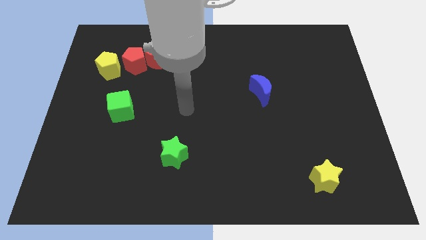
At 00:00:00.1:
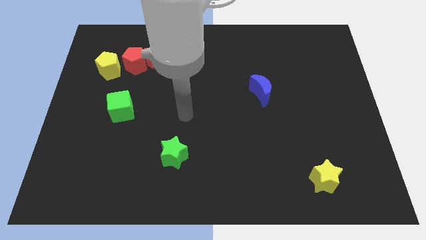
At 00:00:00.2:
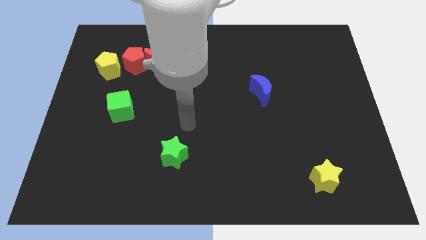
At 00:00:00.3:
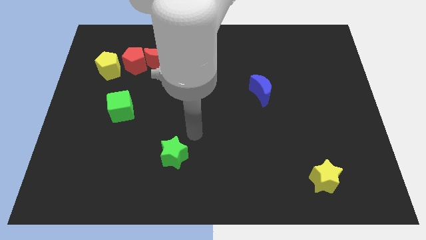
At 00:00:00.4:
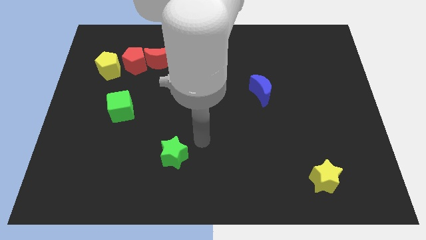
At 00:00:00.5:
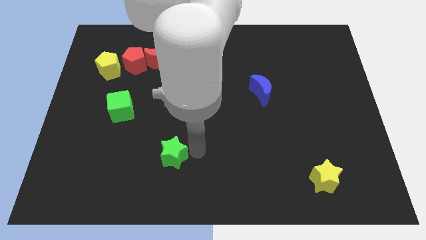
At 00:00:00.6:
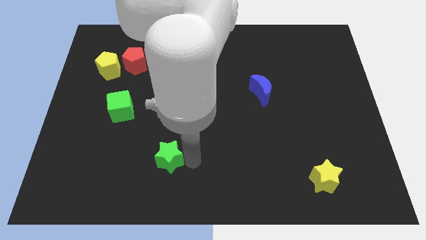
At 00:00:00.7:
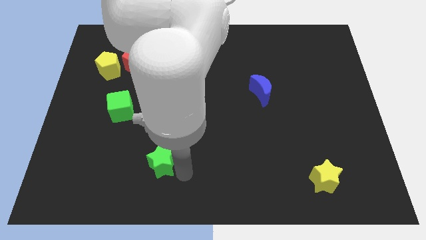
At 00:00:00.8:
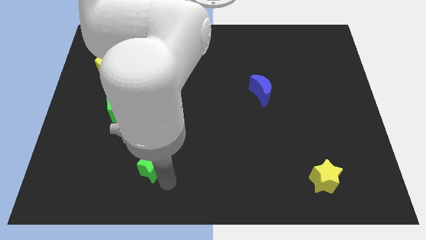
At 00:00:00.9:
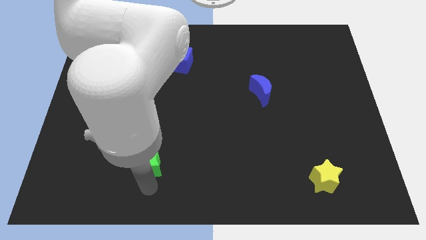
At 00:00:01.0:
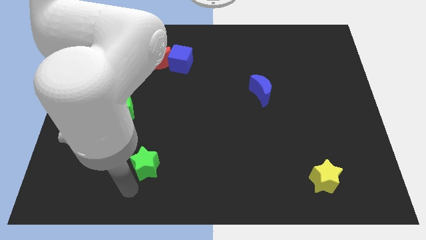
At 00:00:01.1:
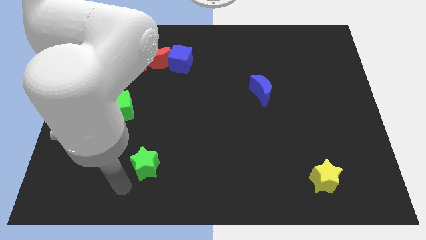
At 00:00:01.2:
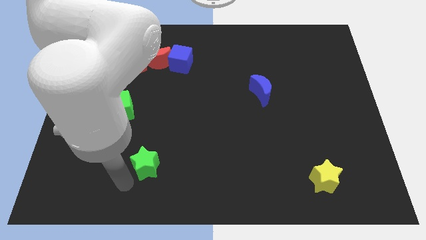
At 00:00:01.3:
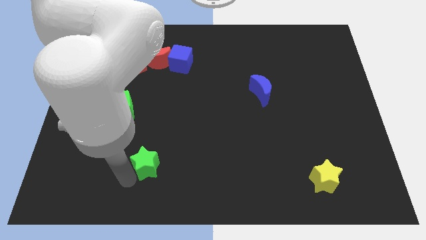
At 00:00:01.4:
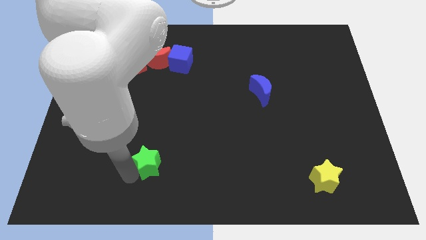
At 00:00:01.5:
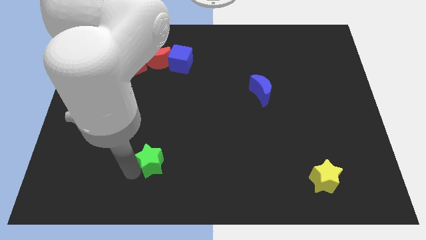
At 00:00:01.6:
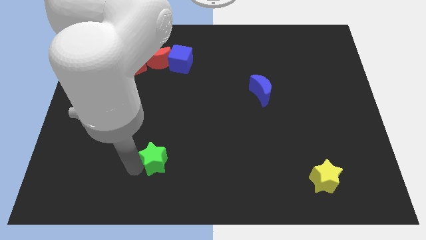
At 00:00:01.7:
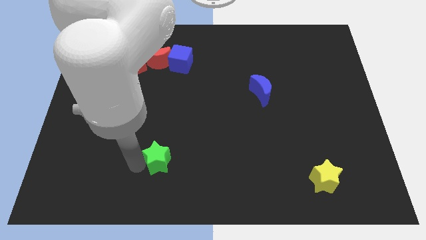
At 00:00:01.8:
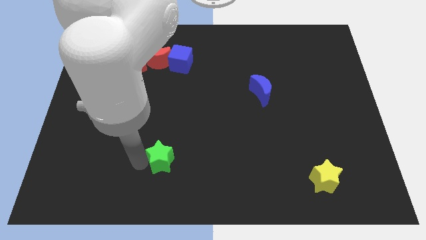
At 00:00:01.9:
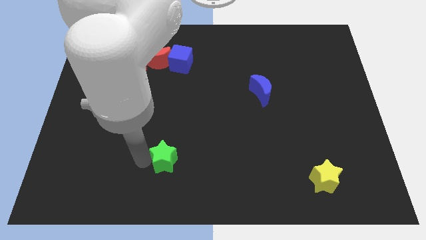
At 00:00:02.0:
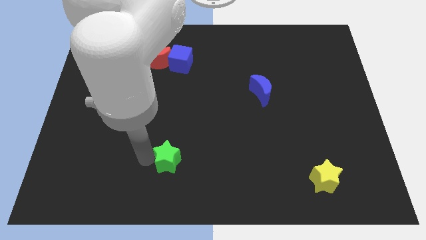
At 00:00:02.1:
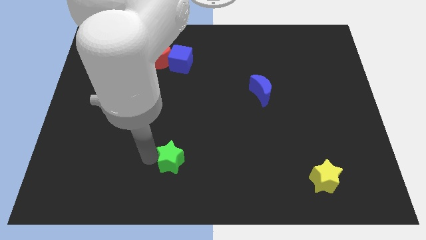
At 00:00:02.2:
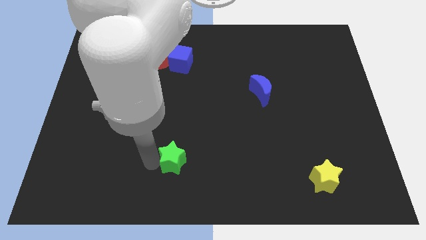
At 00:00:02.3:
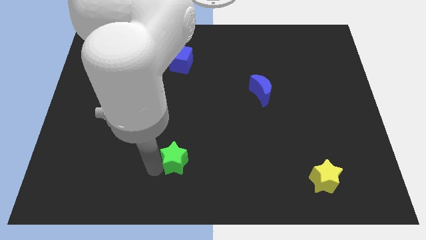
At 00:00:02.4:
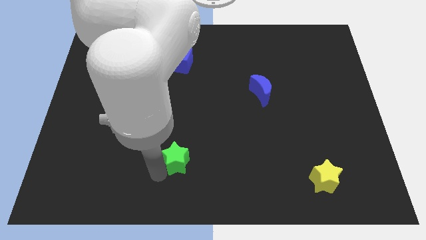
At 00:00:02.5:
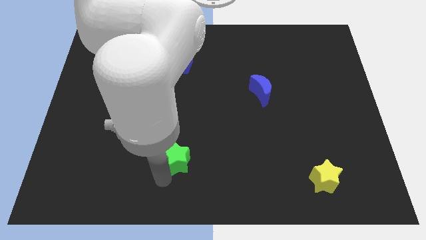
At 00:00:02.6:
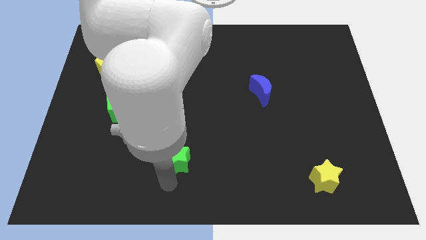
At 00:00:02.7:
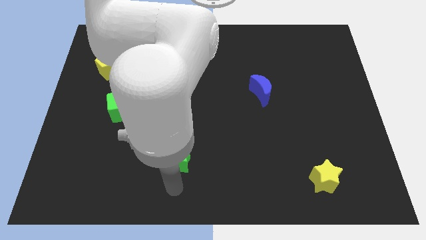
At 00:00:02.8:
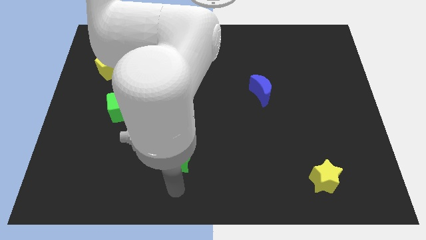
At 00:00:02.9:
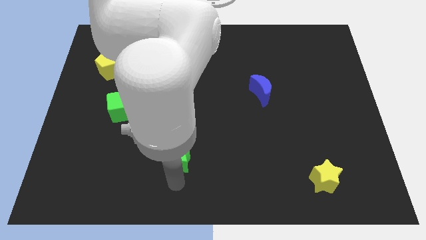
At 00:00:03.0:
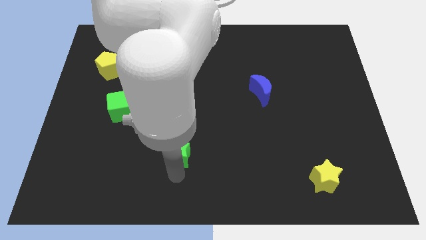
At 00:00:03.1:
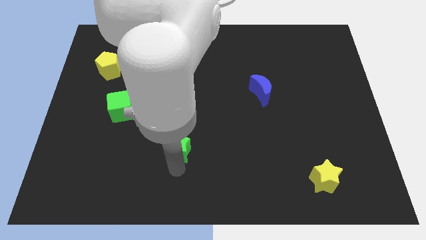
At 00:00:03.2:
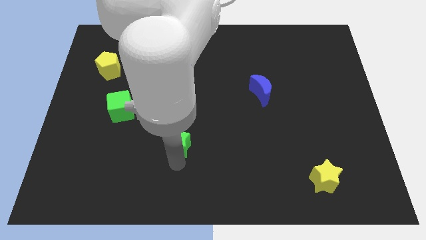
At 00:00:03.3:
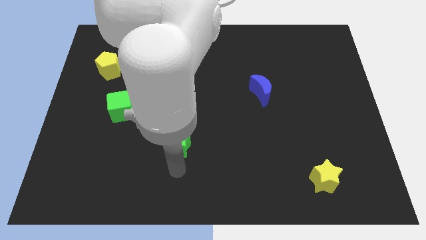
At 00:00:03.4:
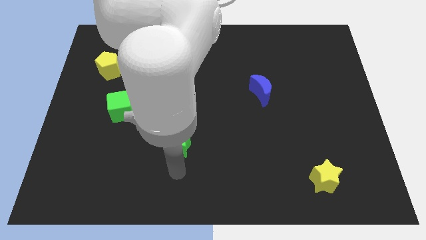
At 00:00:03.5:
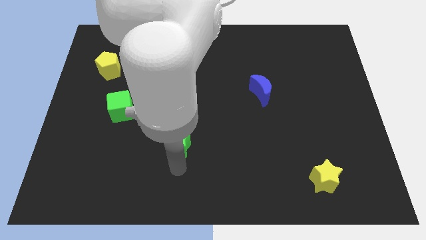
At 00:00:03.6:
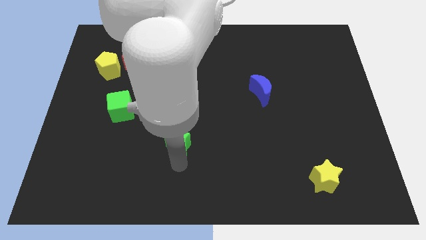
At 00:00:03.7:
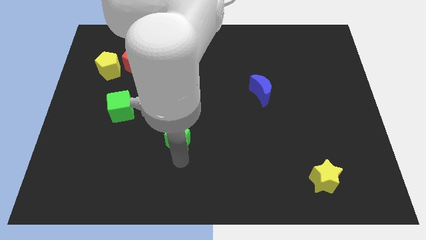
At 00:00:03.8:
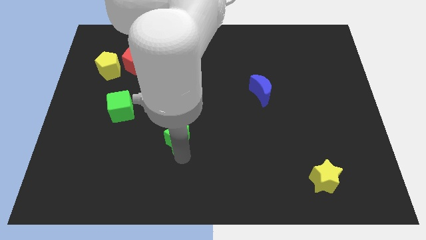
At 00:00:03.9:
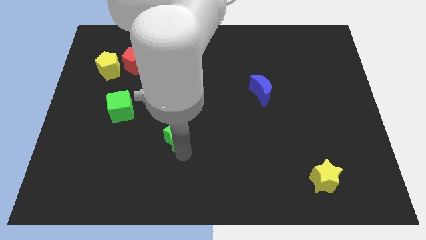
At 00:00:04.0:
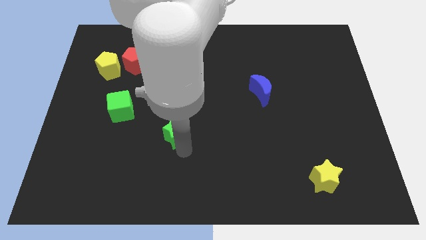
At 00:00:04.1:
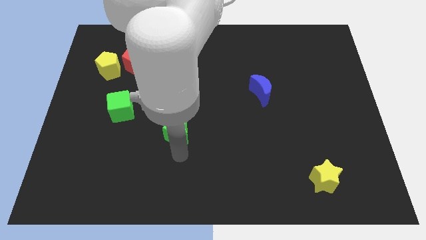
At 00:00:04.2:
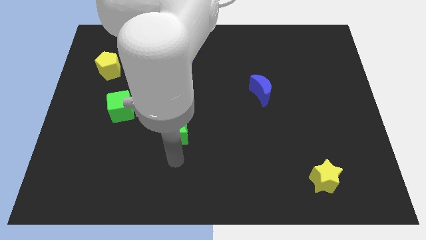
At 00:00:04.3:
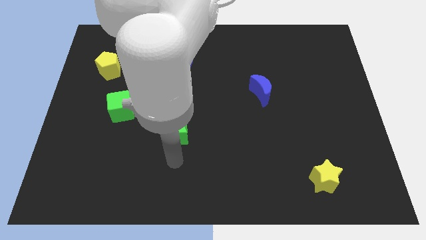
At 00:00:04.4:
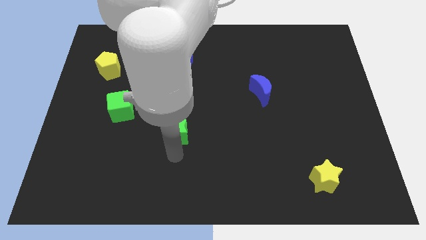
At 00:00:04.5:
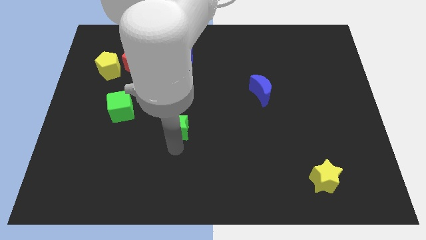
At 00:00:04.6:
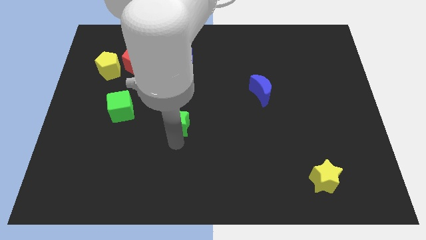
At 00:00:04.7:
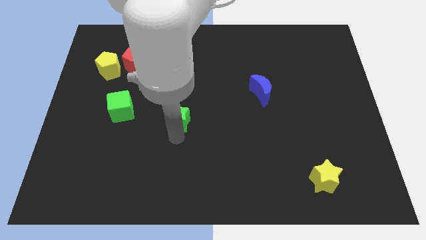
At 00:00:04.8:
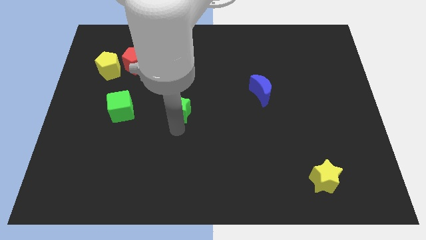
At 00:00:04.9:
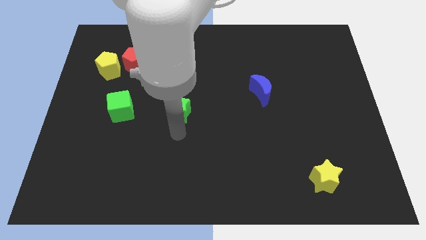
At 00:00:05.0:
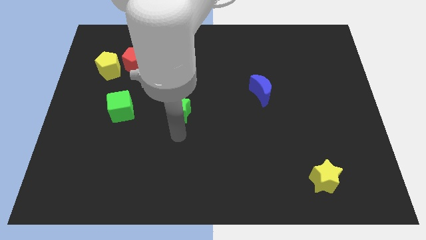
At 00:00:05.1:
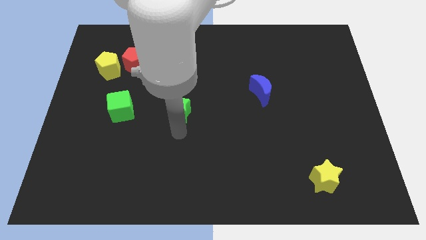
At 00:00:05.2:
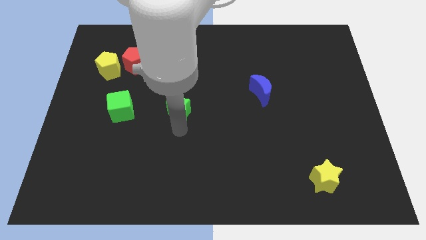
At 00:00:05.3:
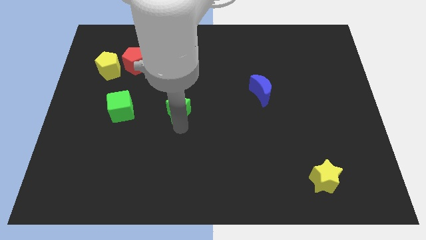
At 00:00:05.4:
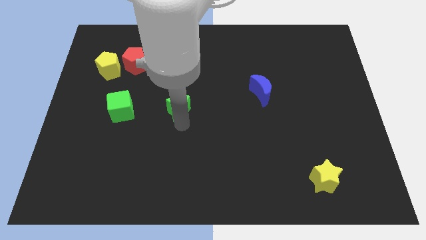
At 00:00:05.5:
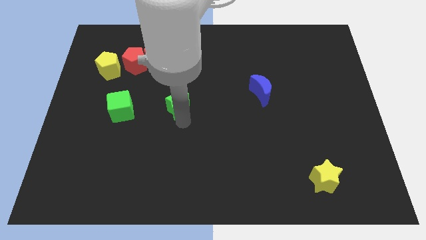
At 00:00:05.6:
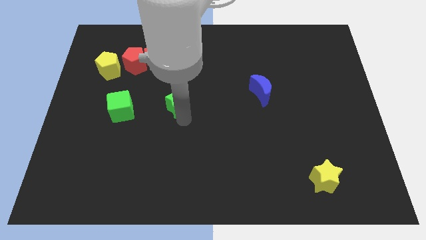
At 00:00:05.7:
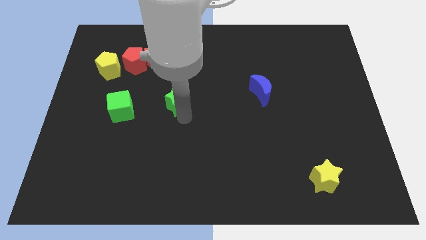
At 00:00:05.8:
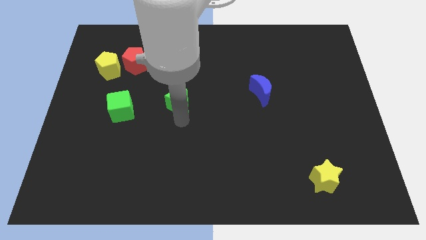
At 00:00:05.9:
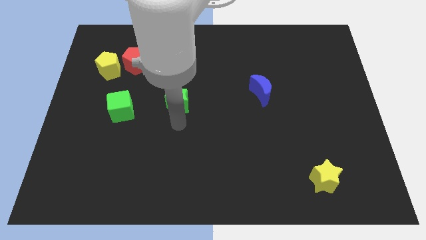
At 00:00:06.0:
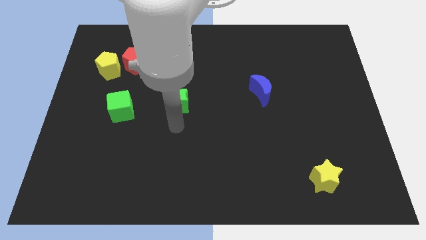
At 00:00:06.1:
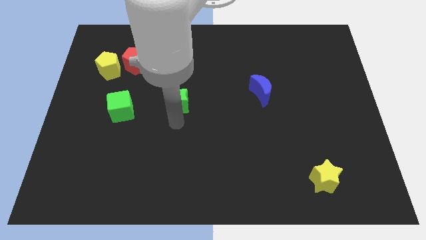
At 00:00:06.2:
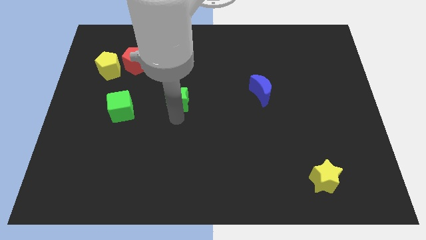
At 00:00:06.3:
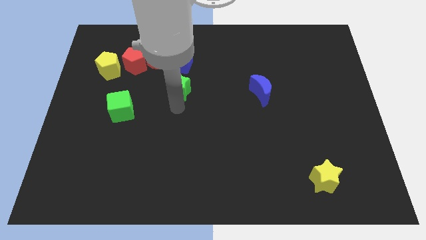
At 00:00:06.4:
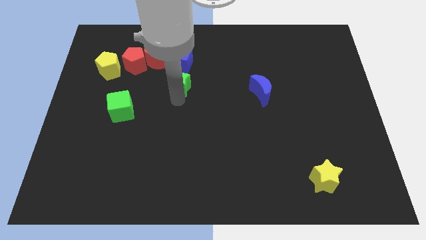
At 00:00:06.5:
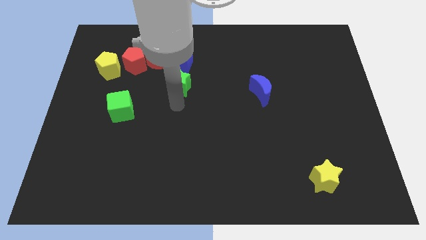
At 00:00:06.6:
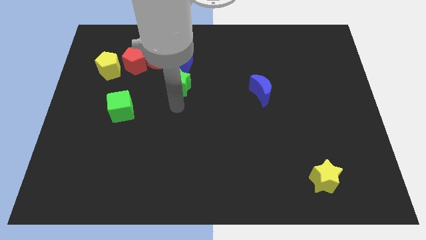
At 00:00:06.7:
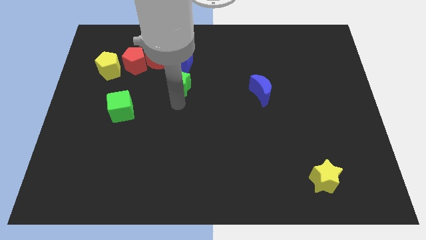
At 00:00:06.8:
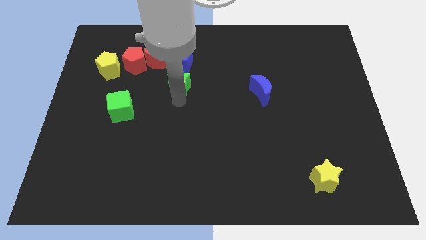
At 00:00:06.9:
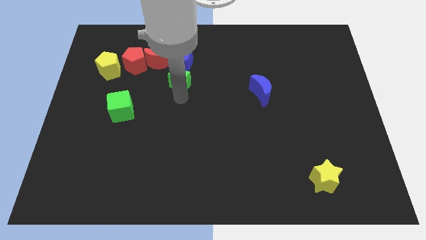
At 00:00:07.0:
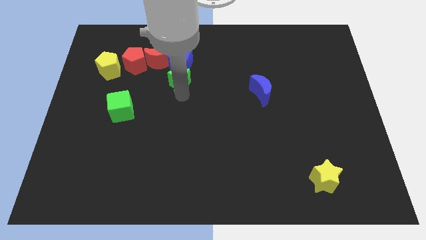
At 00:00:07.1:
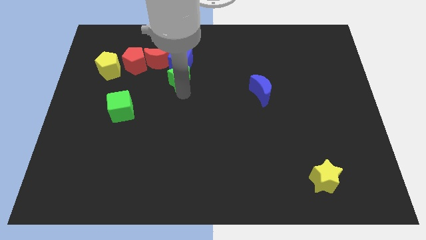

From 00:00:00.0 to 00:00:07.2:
slide the green star towards the blue cube
